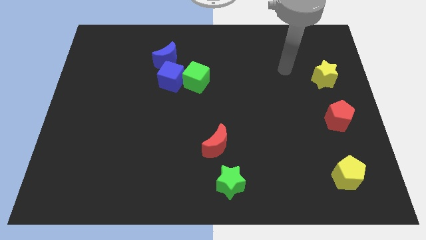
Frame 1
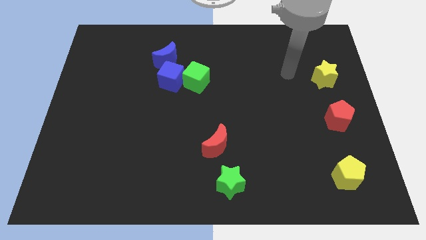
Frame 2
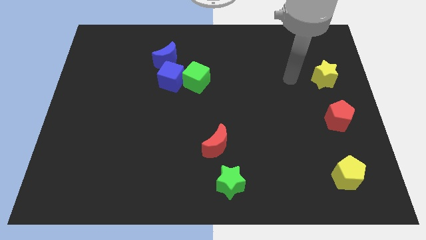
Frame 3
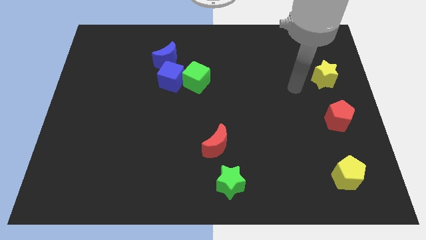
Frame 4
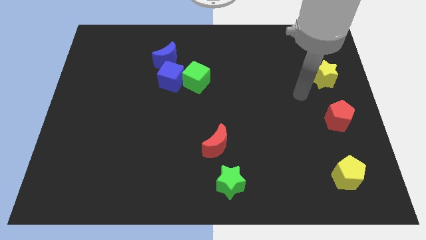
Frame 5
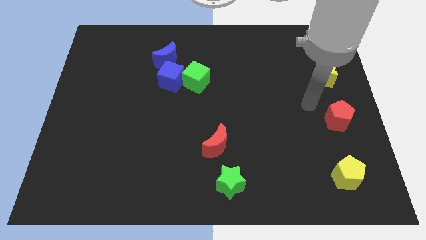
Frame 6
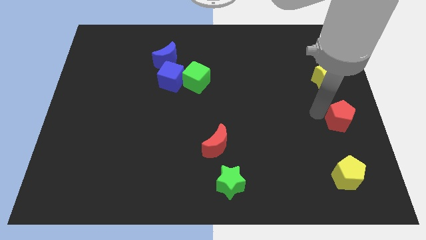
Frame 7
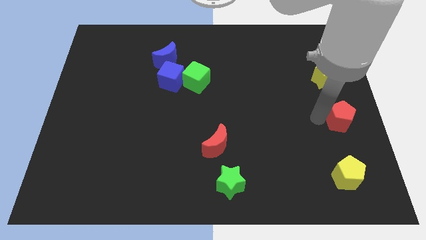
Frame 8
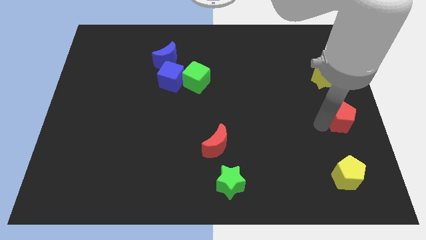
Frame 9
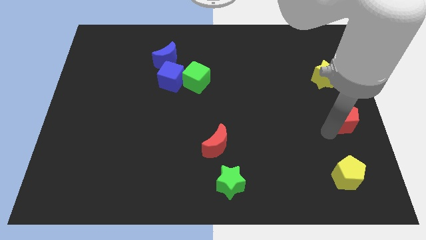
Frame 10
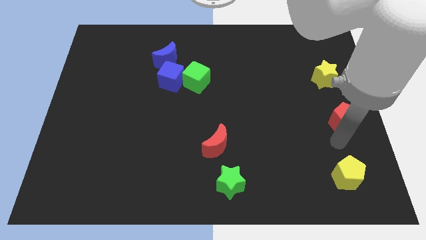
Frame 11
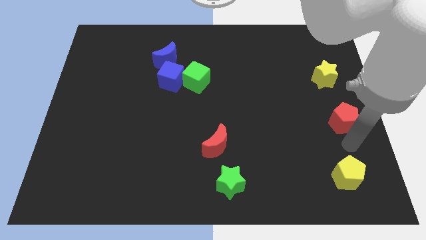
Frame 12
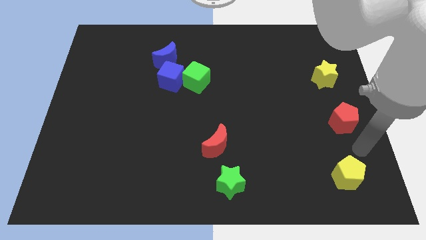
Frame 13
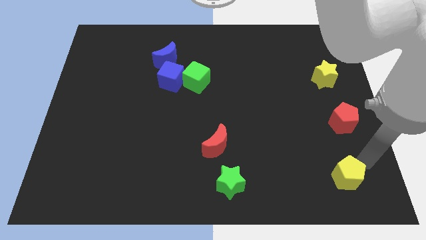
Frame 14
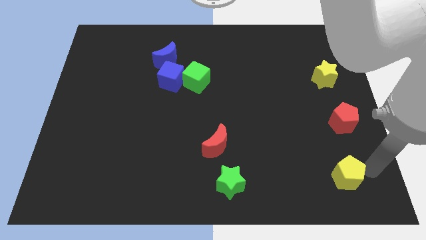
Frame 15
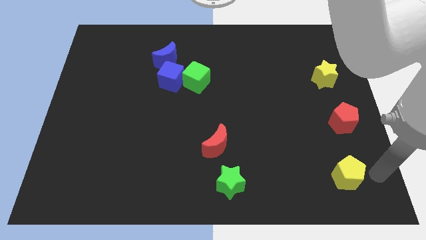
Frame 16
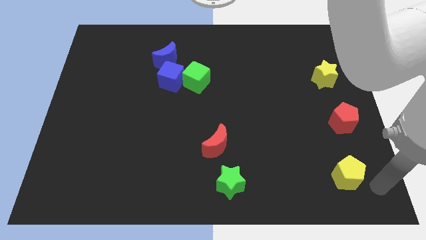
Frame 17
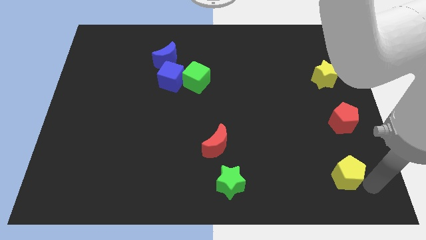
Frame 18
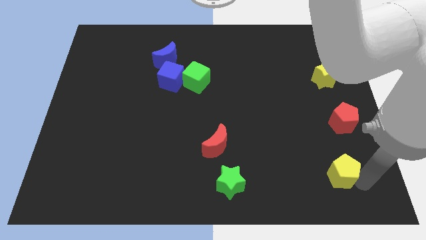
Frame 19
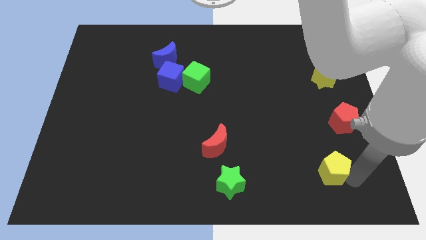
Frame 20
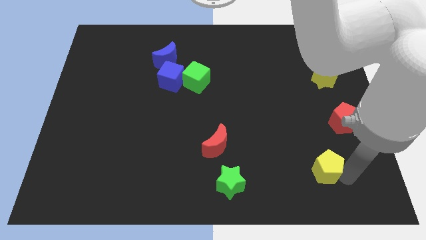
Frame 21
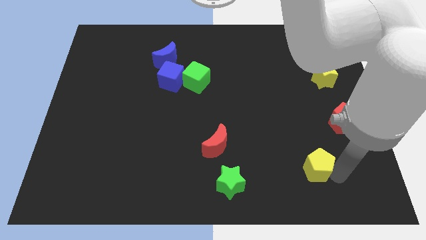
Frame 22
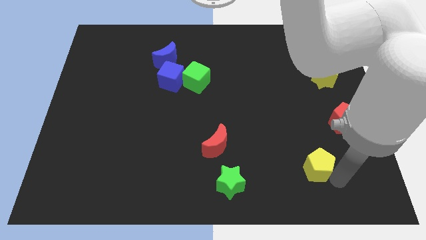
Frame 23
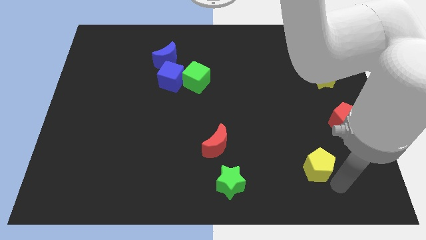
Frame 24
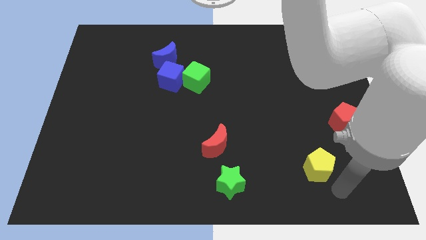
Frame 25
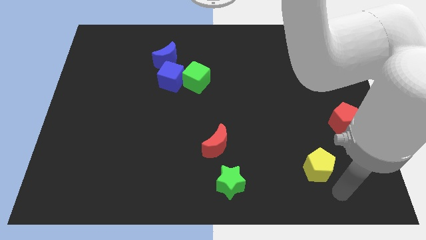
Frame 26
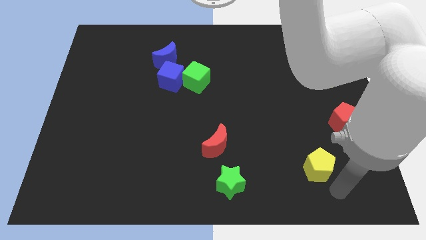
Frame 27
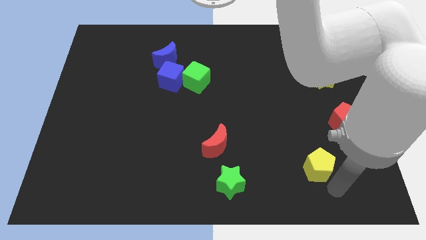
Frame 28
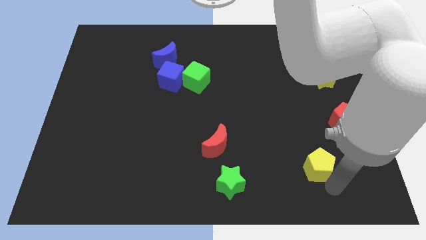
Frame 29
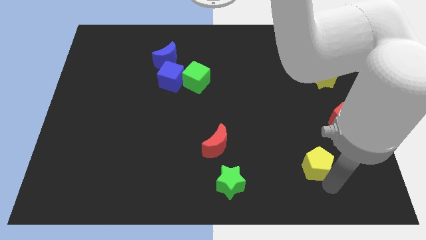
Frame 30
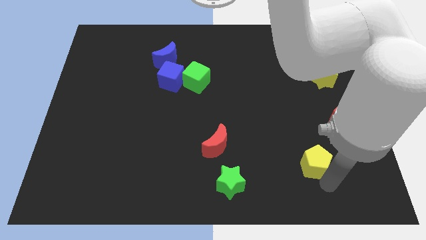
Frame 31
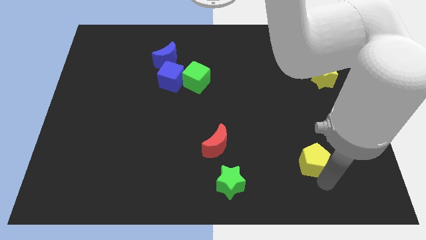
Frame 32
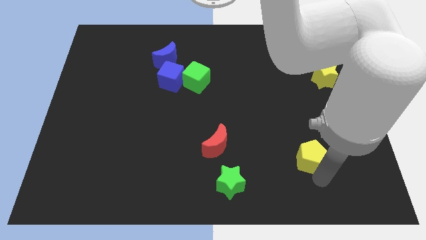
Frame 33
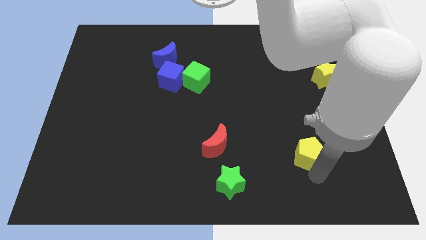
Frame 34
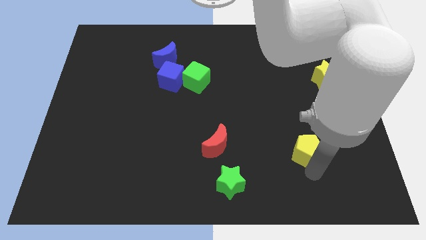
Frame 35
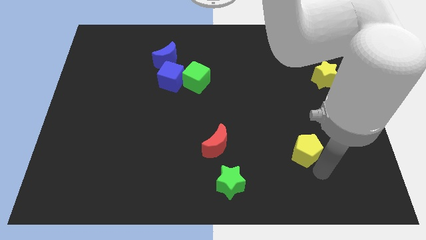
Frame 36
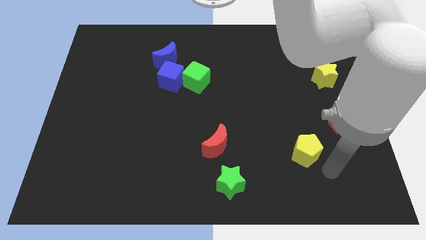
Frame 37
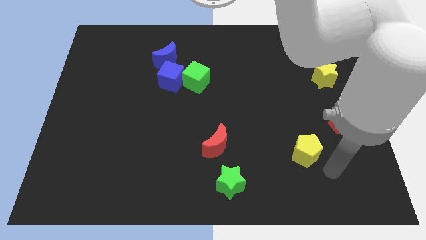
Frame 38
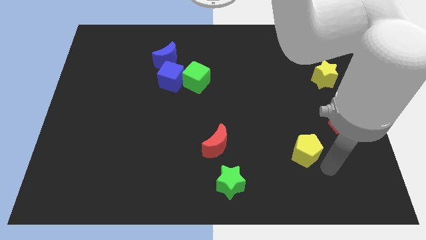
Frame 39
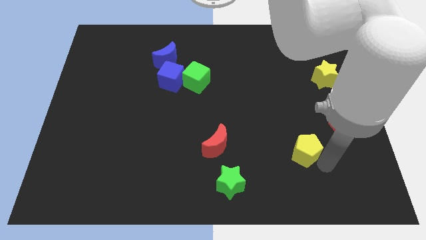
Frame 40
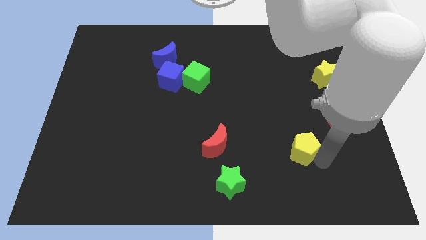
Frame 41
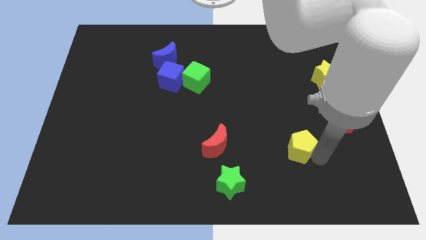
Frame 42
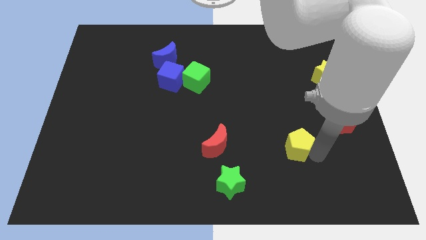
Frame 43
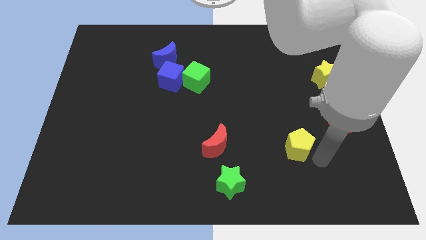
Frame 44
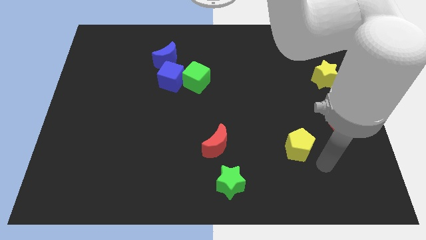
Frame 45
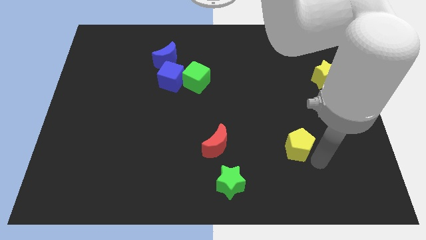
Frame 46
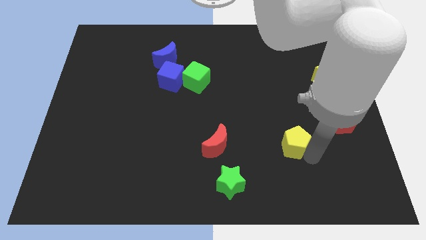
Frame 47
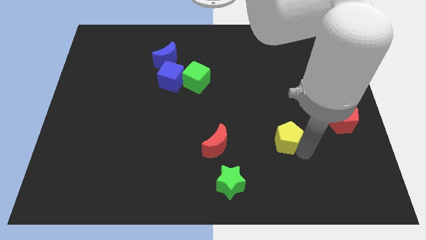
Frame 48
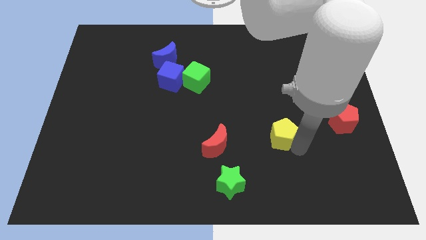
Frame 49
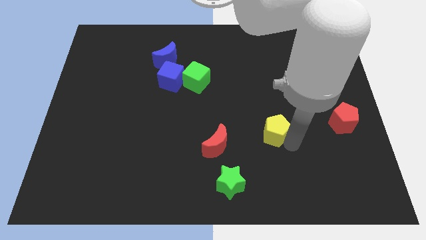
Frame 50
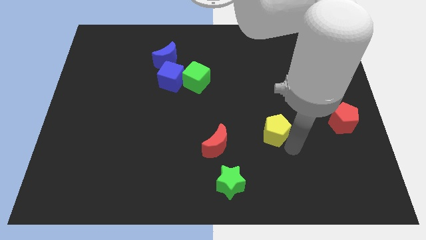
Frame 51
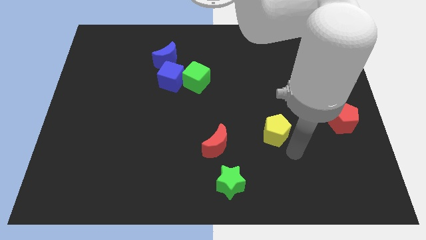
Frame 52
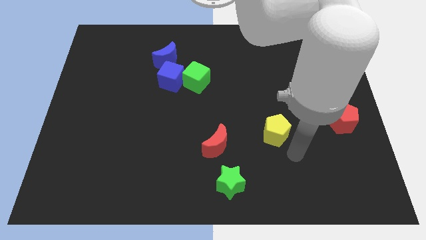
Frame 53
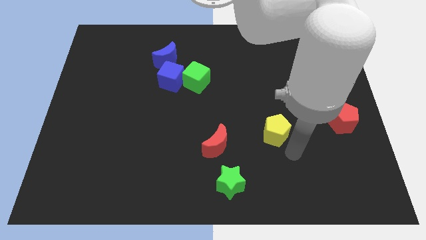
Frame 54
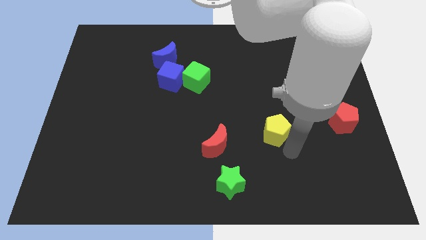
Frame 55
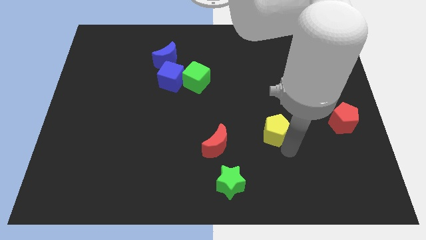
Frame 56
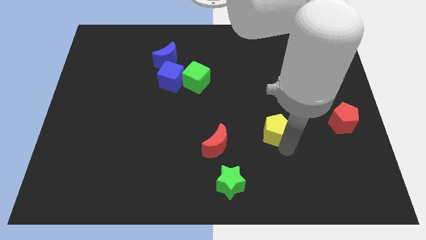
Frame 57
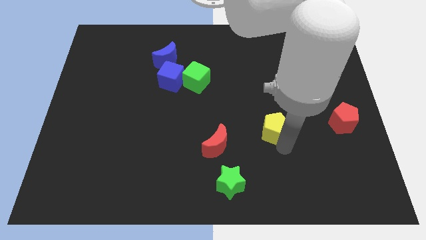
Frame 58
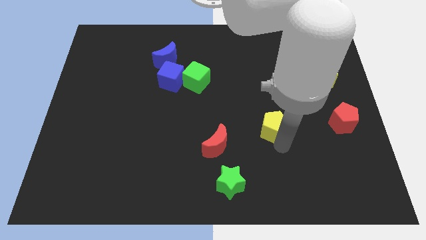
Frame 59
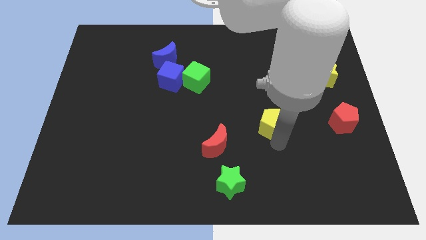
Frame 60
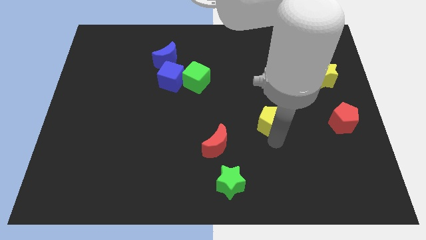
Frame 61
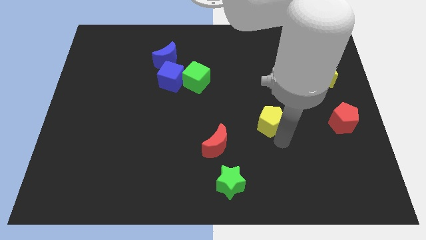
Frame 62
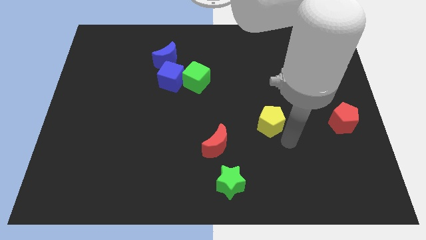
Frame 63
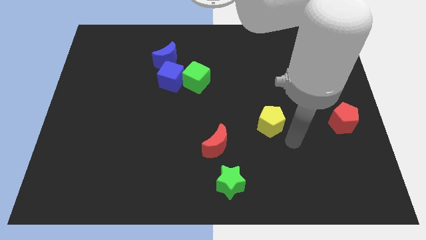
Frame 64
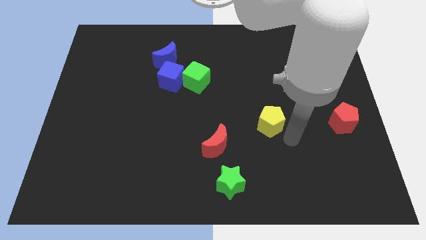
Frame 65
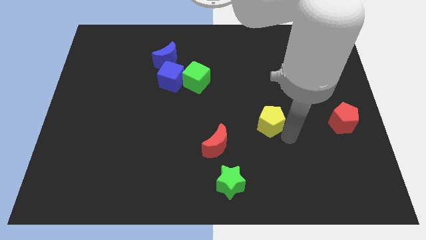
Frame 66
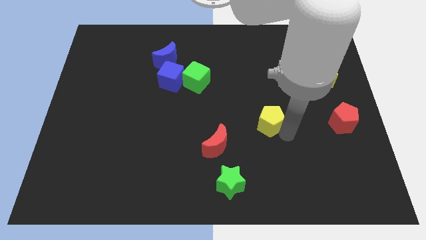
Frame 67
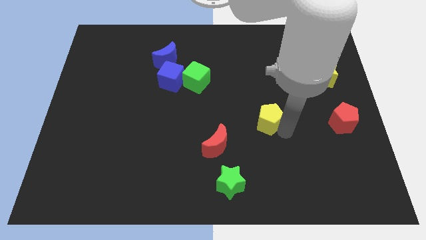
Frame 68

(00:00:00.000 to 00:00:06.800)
move the yellow pentagon upwards and then left

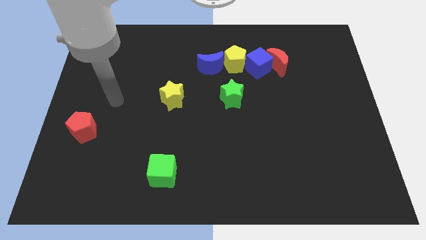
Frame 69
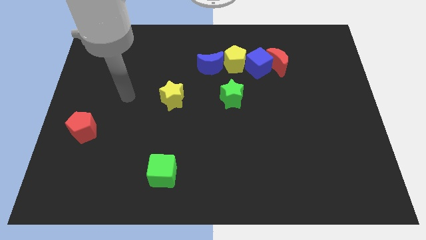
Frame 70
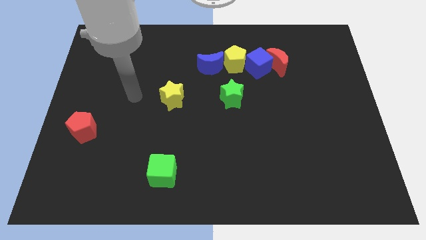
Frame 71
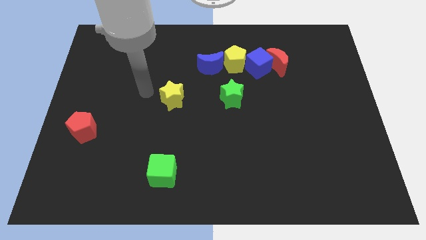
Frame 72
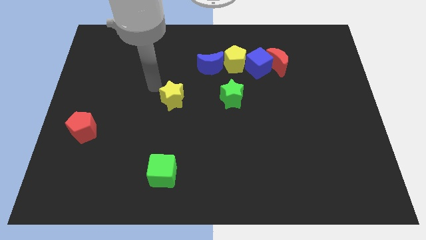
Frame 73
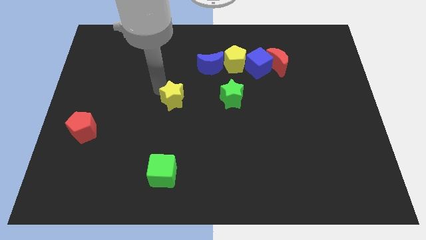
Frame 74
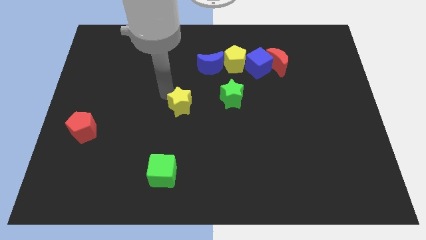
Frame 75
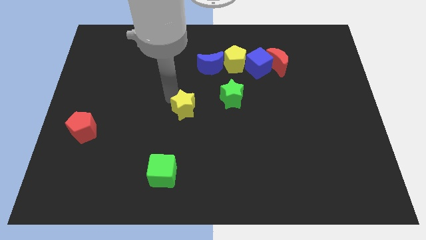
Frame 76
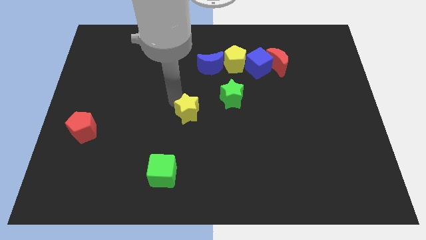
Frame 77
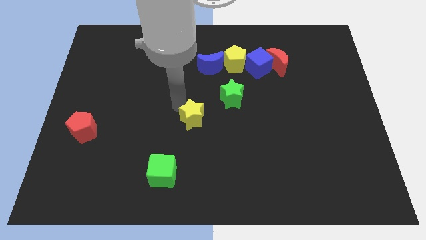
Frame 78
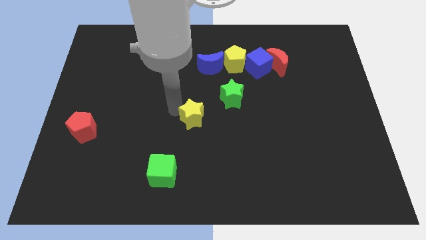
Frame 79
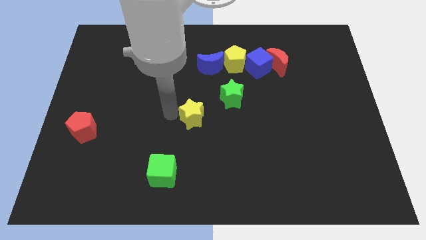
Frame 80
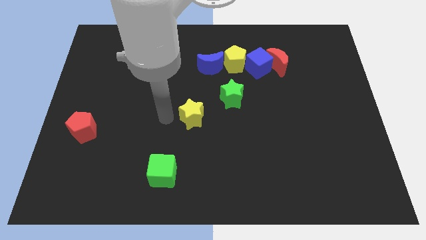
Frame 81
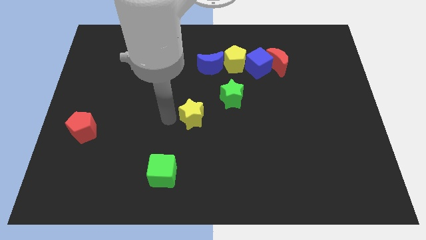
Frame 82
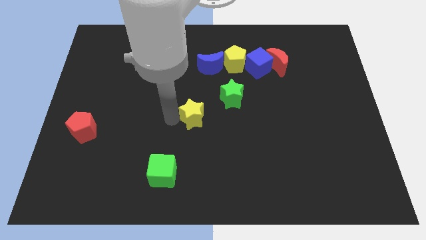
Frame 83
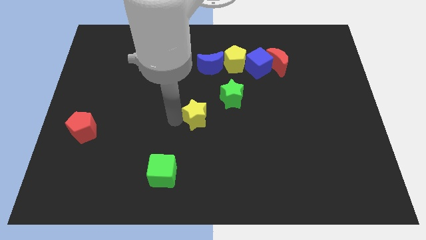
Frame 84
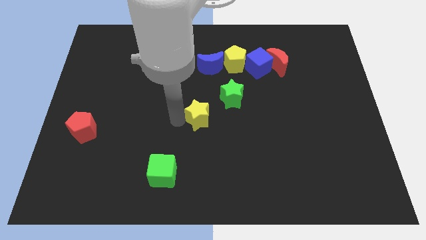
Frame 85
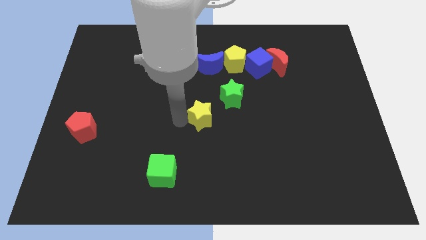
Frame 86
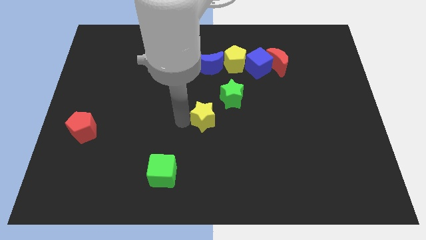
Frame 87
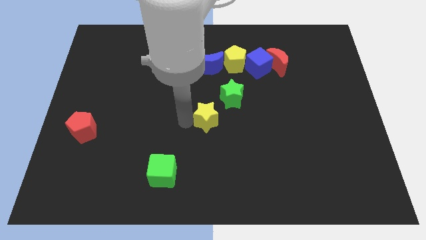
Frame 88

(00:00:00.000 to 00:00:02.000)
slightly move the yellow star right
